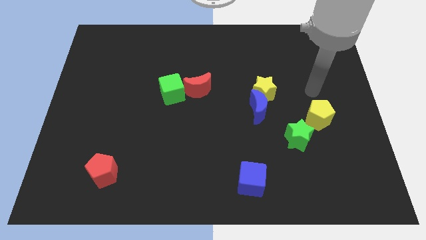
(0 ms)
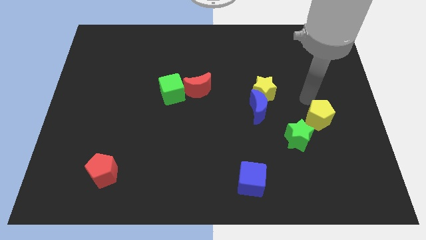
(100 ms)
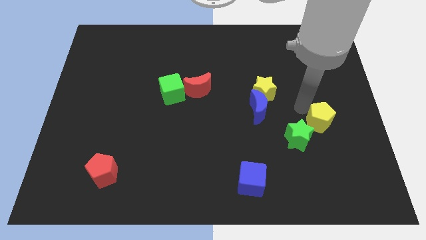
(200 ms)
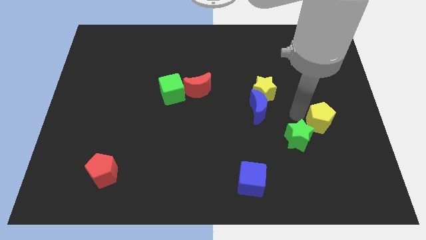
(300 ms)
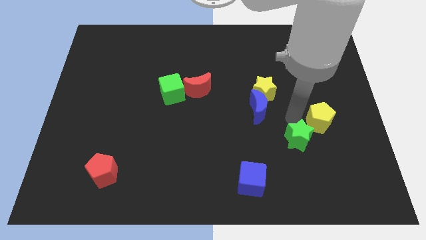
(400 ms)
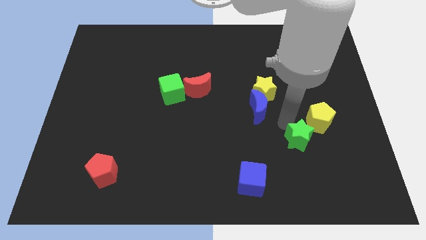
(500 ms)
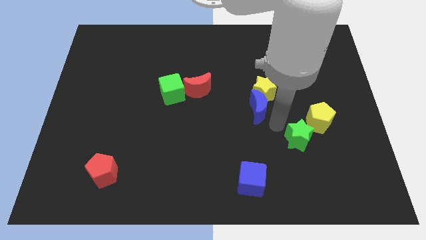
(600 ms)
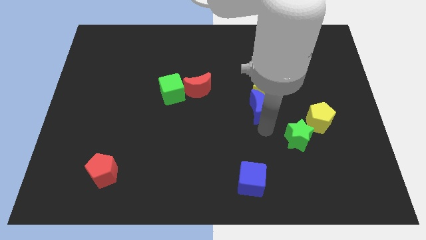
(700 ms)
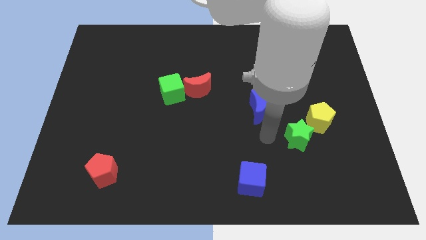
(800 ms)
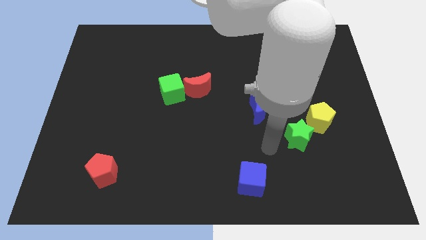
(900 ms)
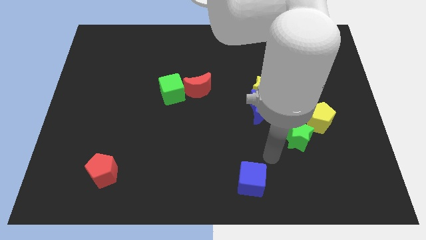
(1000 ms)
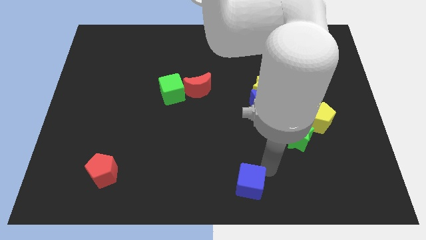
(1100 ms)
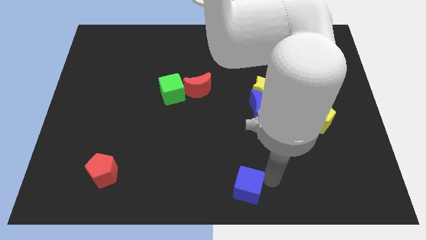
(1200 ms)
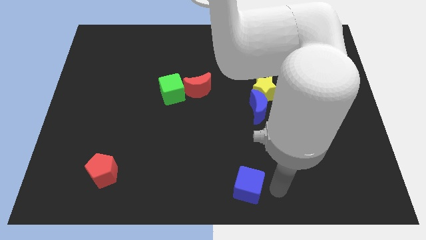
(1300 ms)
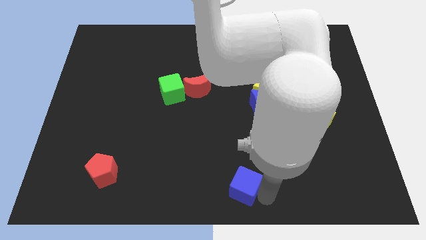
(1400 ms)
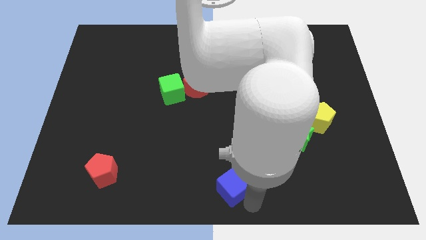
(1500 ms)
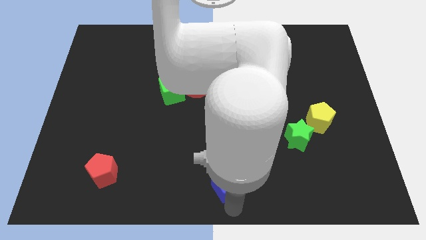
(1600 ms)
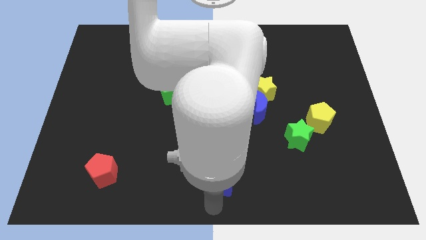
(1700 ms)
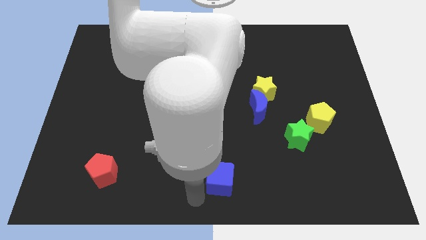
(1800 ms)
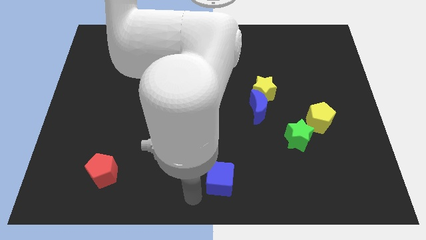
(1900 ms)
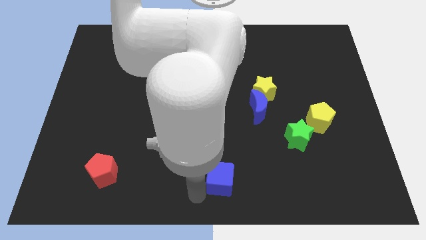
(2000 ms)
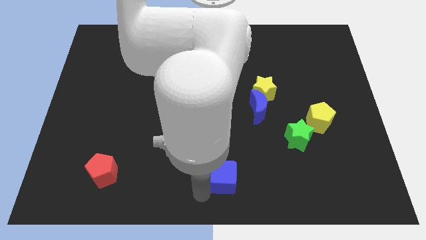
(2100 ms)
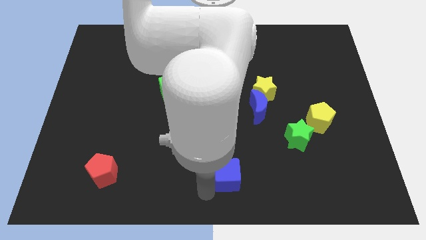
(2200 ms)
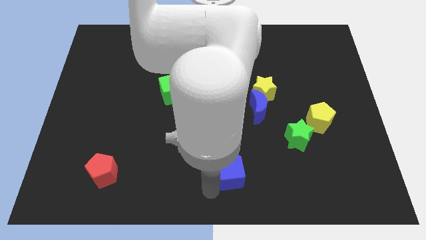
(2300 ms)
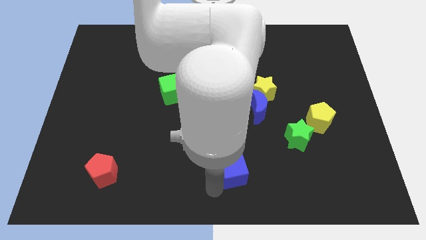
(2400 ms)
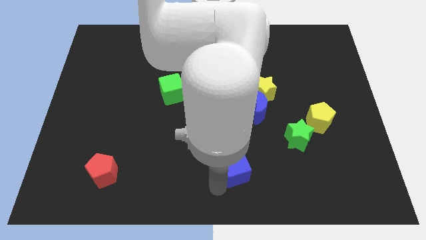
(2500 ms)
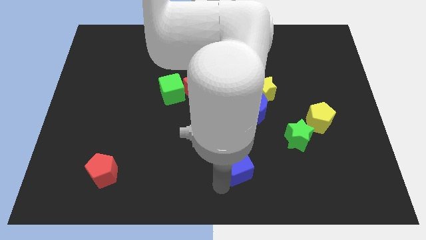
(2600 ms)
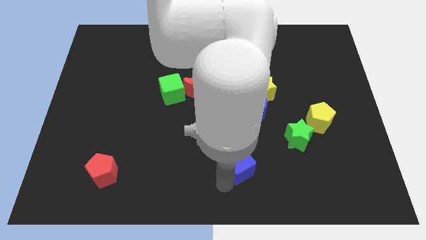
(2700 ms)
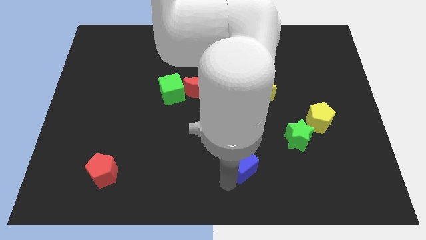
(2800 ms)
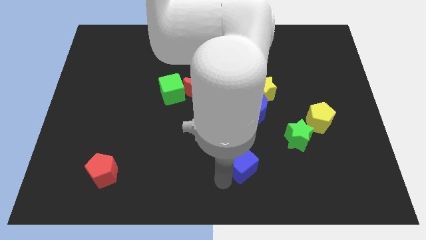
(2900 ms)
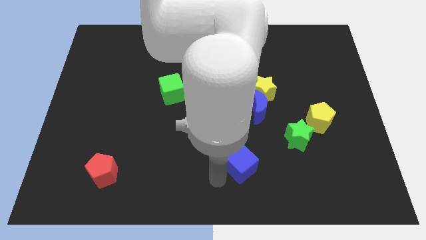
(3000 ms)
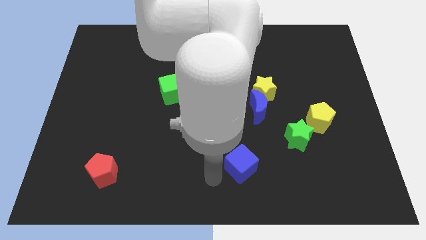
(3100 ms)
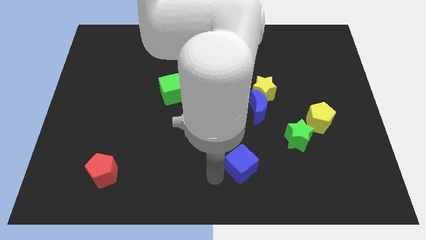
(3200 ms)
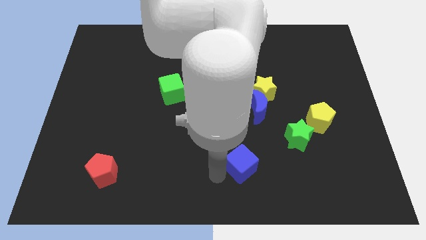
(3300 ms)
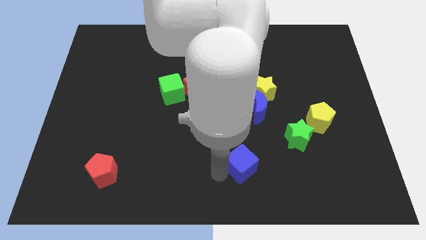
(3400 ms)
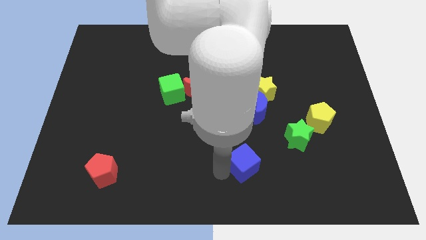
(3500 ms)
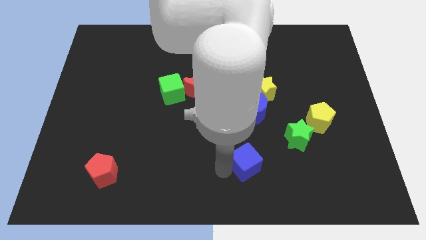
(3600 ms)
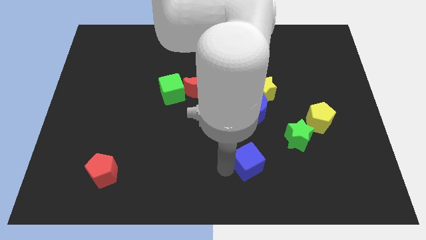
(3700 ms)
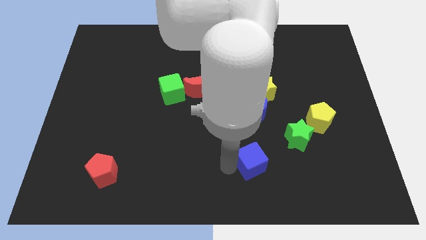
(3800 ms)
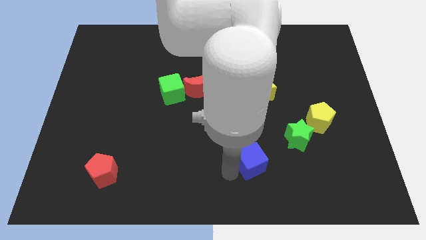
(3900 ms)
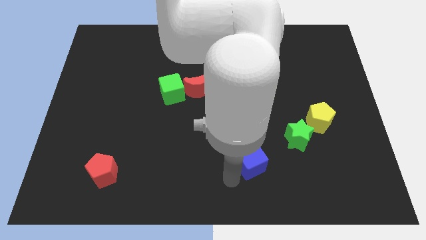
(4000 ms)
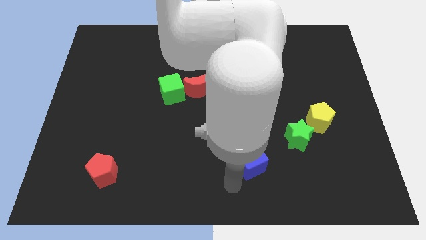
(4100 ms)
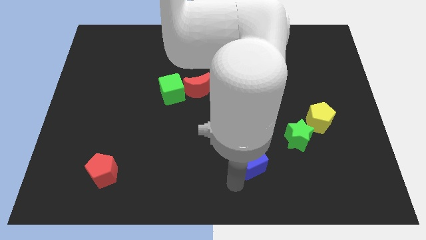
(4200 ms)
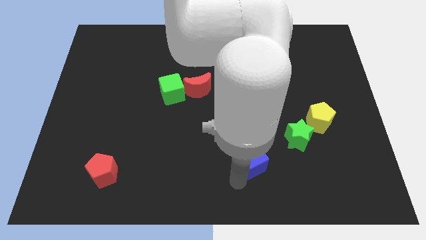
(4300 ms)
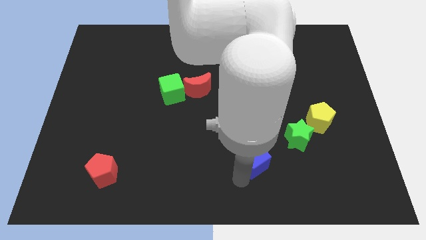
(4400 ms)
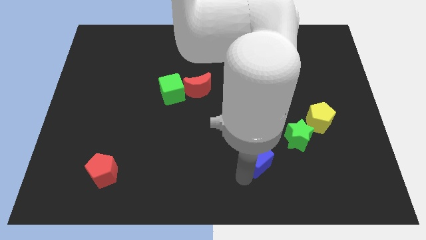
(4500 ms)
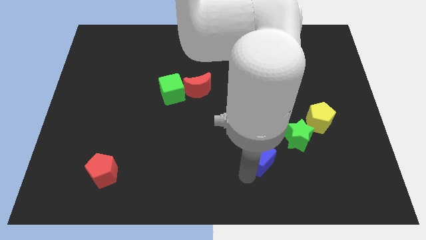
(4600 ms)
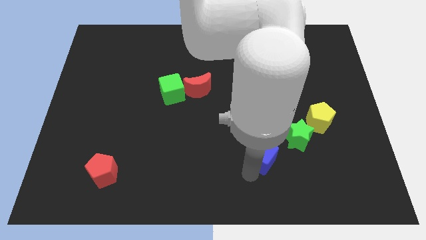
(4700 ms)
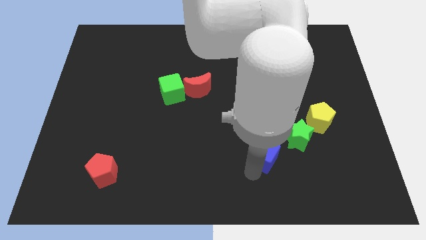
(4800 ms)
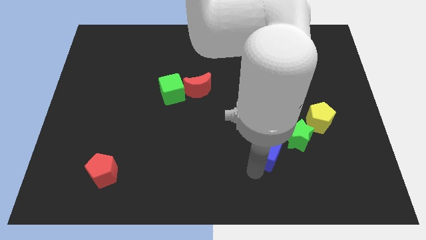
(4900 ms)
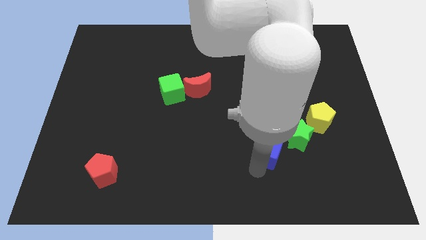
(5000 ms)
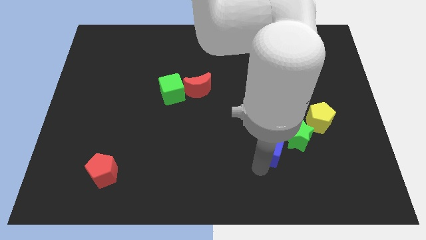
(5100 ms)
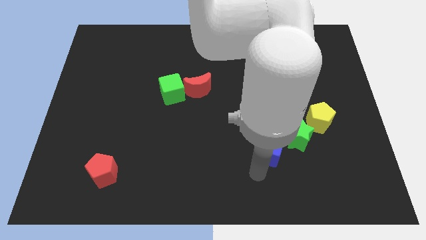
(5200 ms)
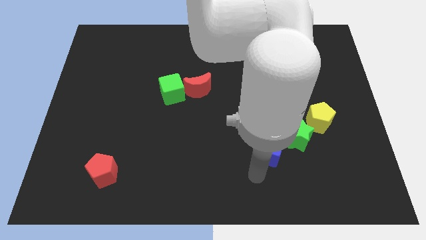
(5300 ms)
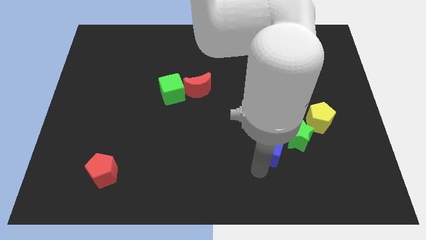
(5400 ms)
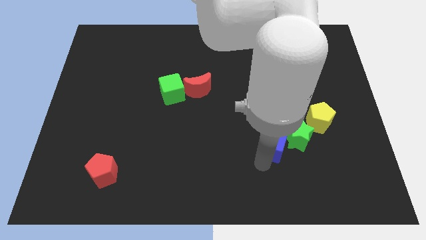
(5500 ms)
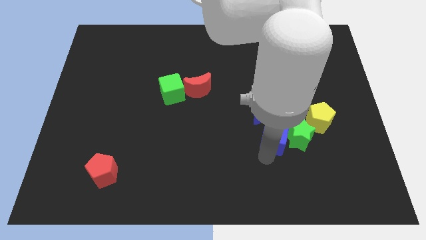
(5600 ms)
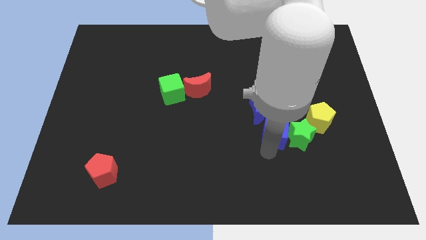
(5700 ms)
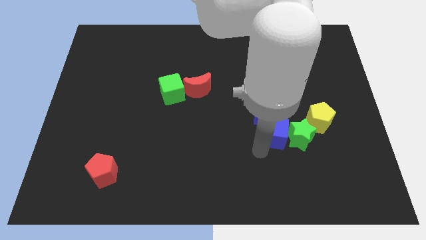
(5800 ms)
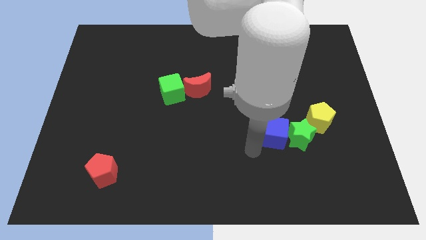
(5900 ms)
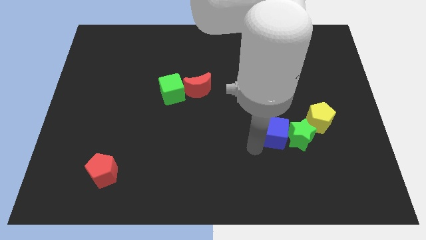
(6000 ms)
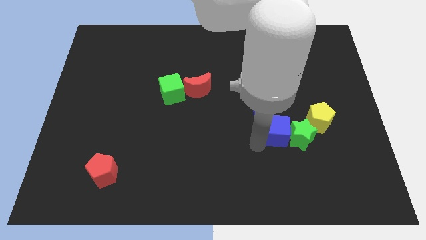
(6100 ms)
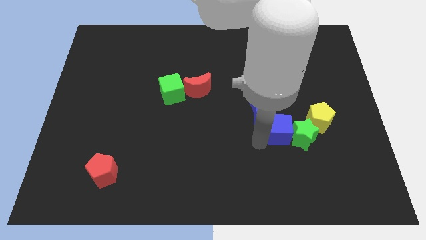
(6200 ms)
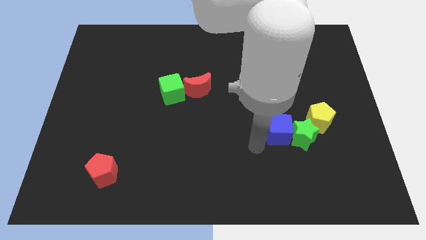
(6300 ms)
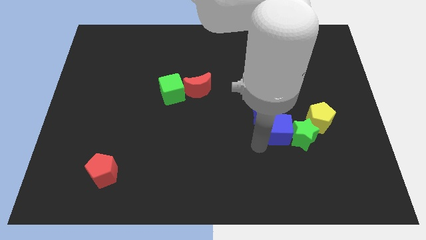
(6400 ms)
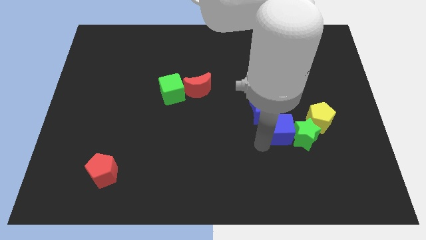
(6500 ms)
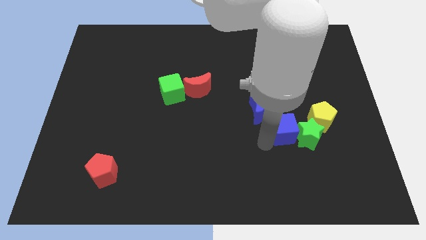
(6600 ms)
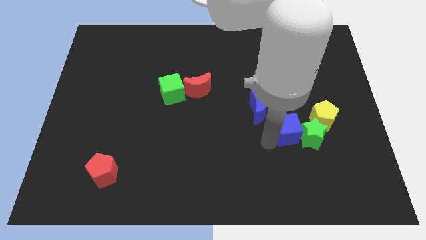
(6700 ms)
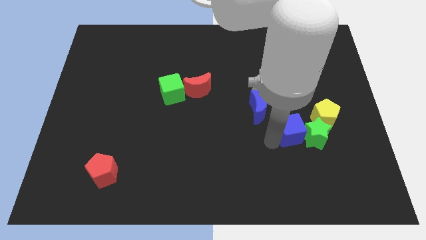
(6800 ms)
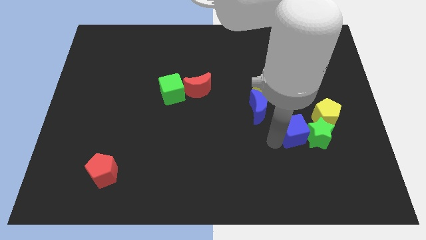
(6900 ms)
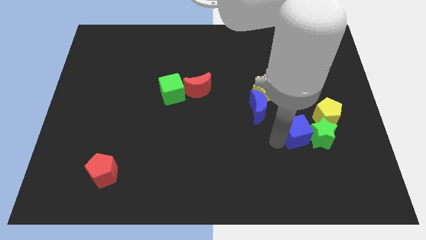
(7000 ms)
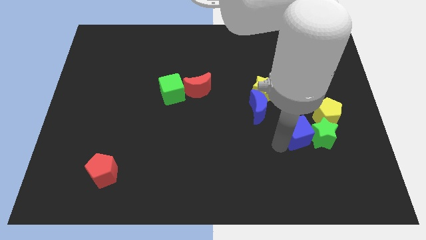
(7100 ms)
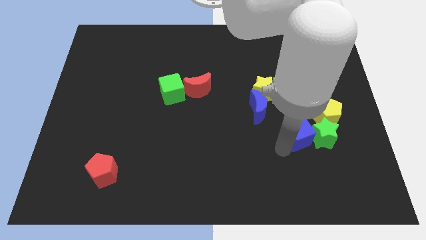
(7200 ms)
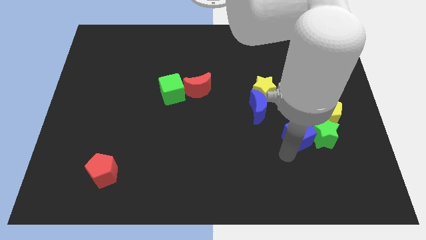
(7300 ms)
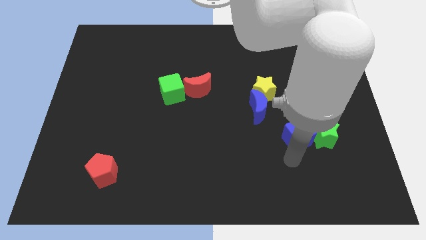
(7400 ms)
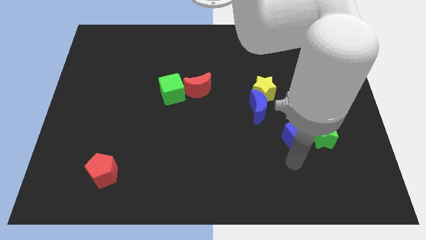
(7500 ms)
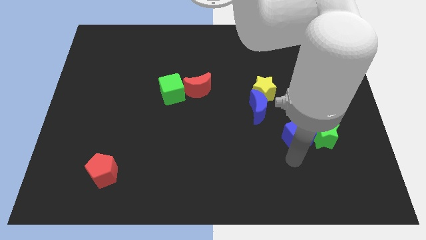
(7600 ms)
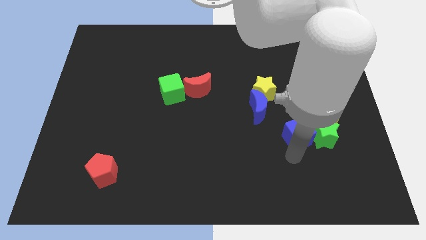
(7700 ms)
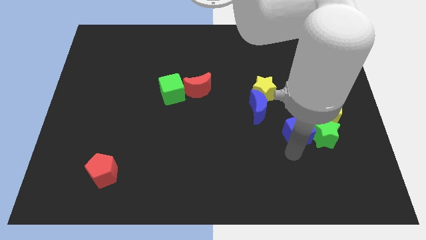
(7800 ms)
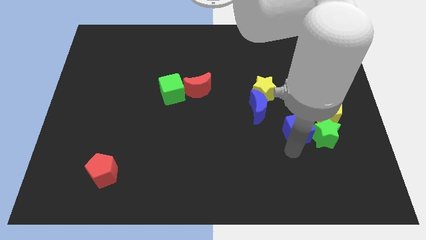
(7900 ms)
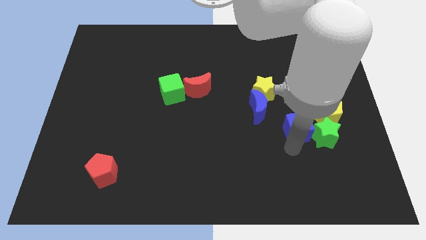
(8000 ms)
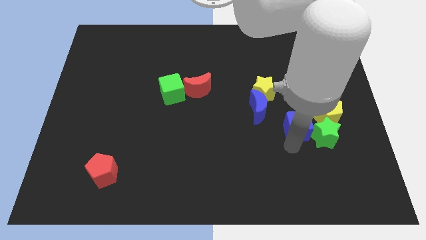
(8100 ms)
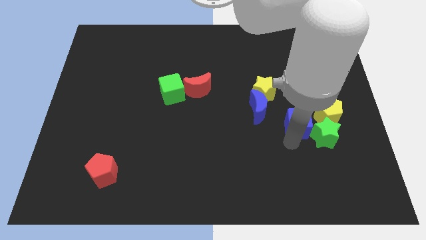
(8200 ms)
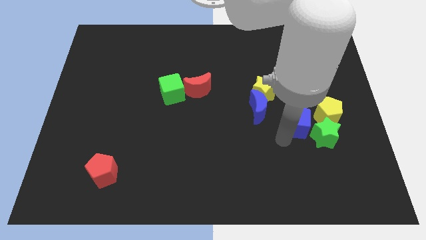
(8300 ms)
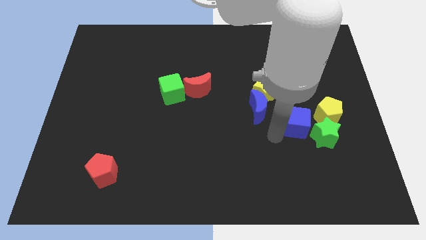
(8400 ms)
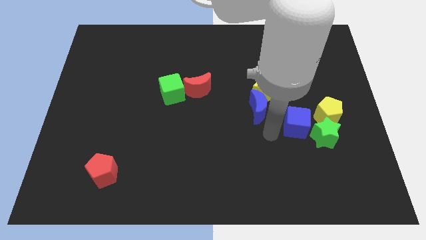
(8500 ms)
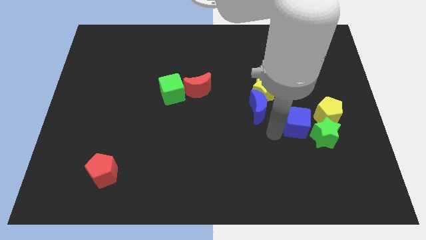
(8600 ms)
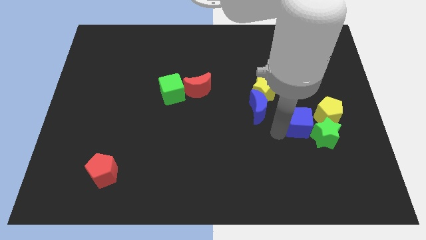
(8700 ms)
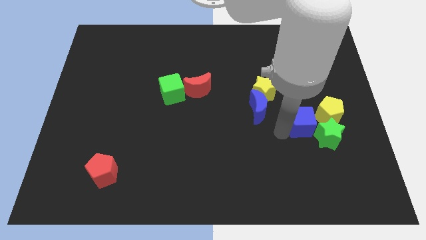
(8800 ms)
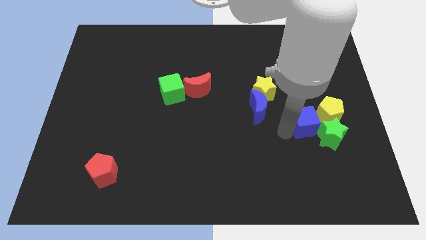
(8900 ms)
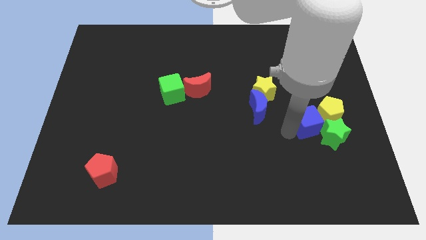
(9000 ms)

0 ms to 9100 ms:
move the blue cube close to the yellow pentagon
